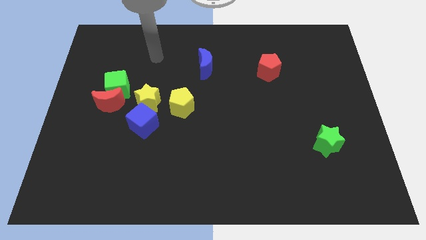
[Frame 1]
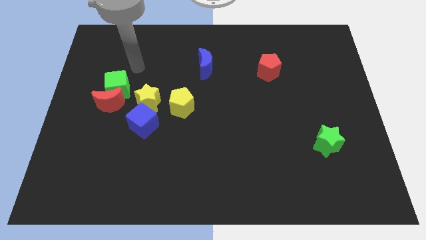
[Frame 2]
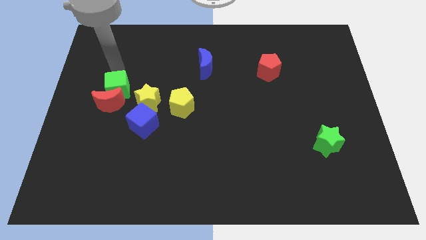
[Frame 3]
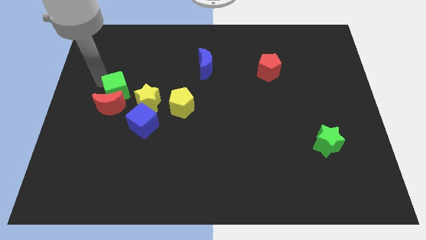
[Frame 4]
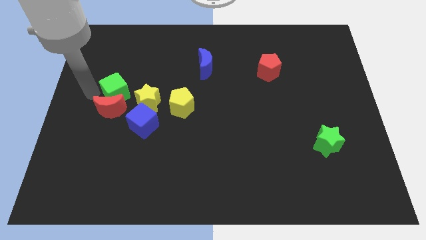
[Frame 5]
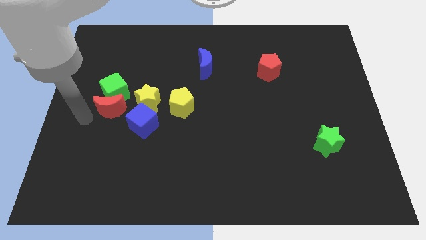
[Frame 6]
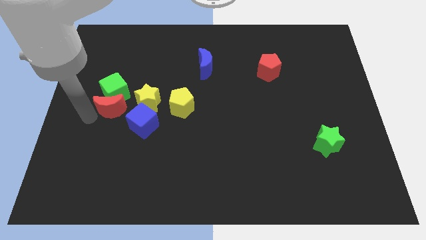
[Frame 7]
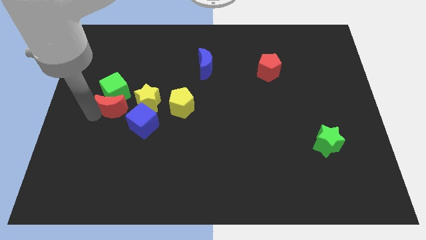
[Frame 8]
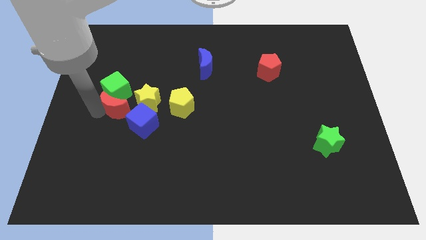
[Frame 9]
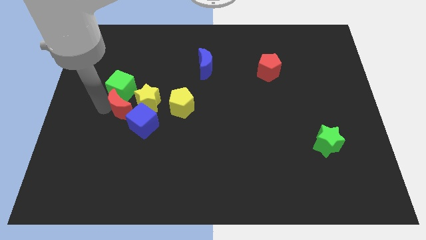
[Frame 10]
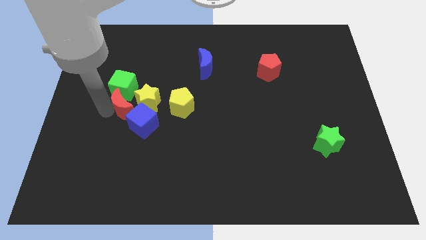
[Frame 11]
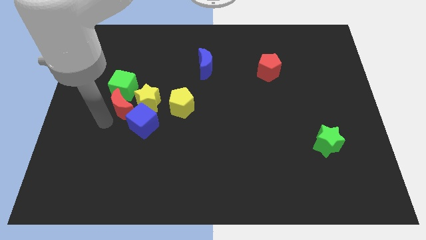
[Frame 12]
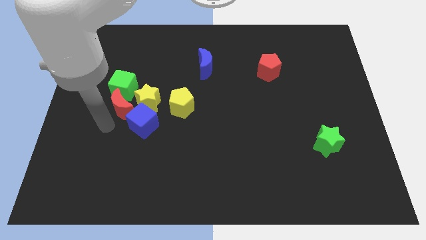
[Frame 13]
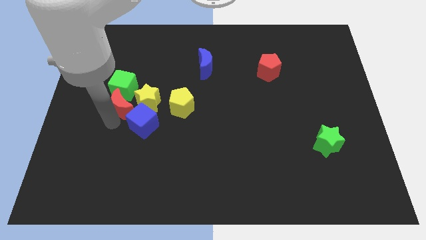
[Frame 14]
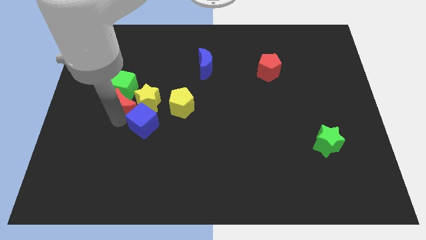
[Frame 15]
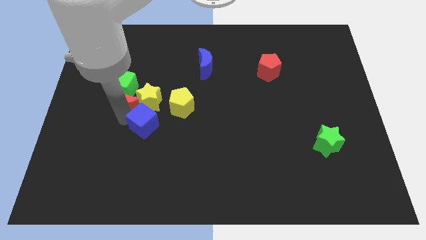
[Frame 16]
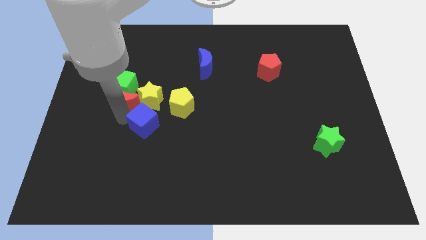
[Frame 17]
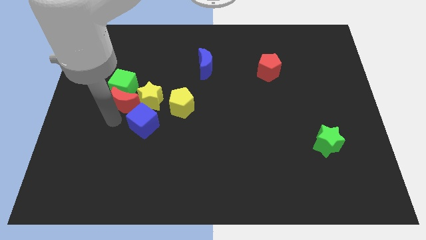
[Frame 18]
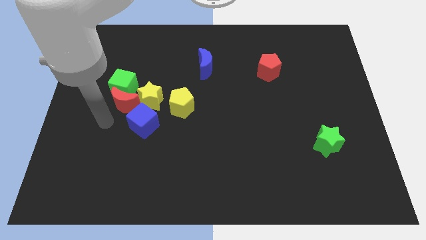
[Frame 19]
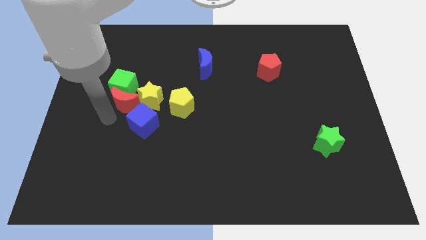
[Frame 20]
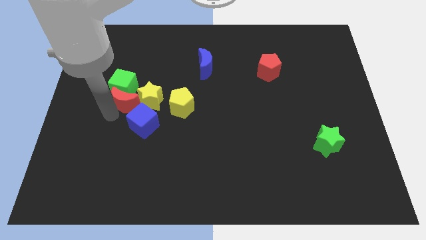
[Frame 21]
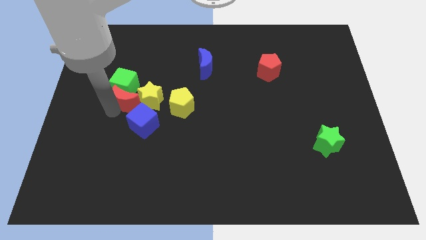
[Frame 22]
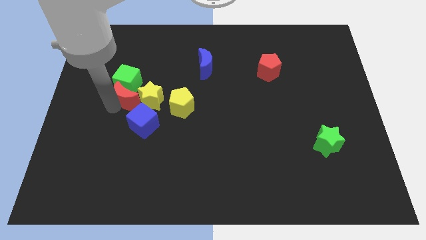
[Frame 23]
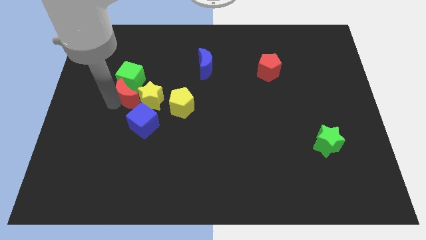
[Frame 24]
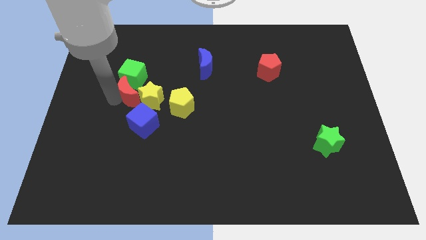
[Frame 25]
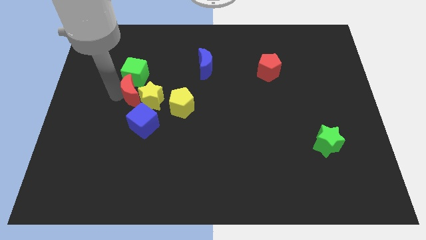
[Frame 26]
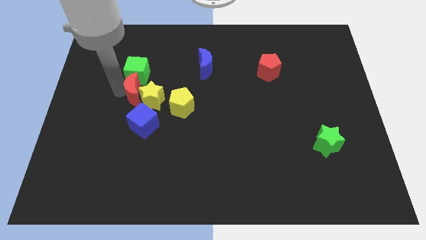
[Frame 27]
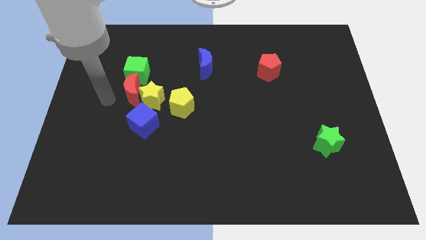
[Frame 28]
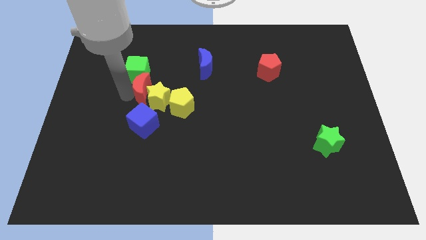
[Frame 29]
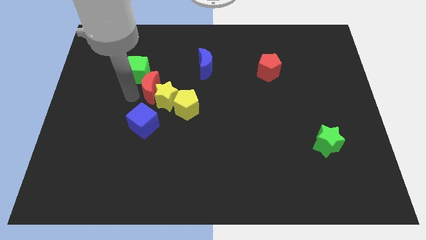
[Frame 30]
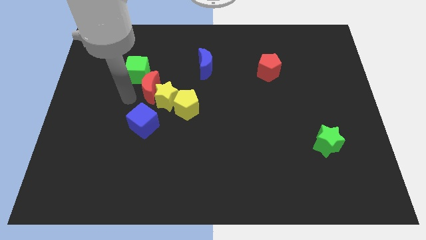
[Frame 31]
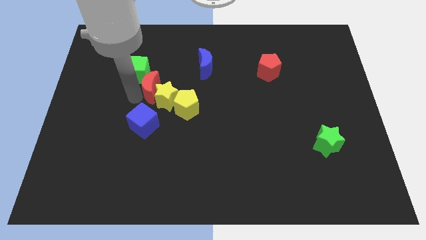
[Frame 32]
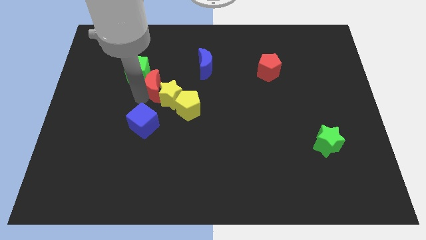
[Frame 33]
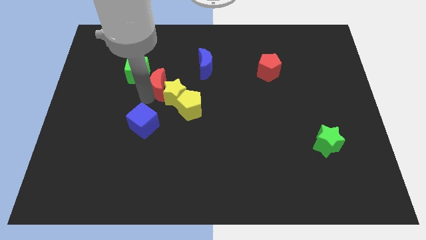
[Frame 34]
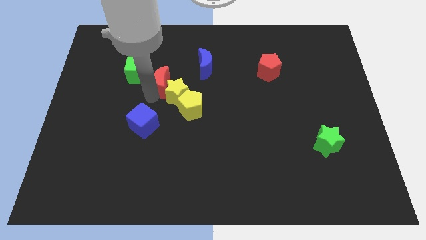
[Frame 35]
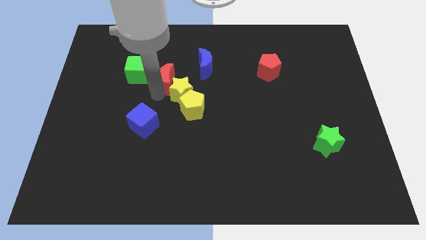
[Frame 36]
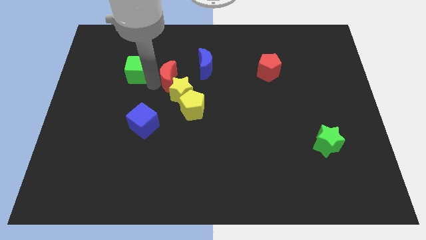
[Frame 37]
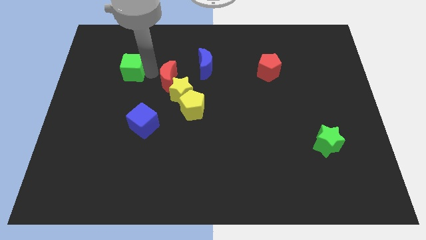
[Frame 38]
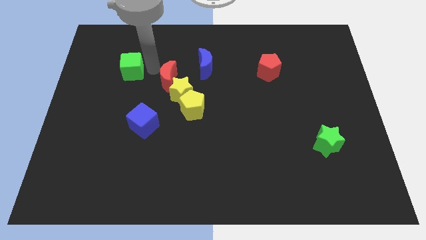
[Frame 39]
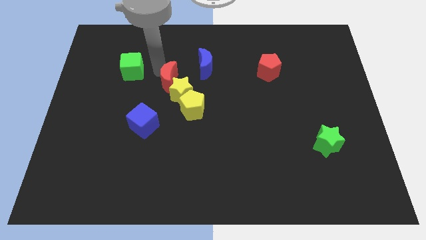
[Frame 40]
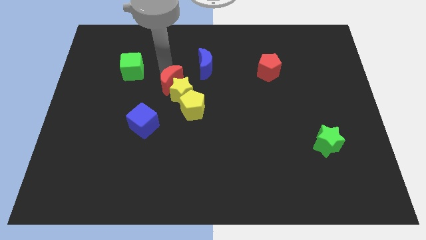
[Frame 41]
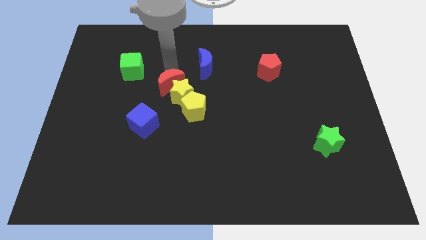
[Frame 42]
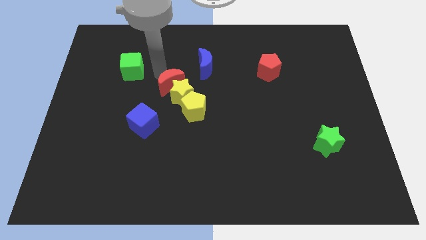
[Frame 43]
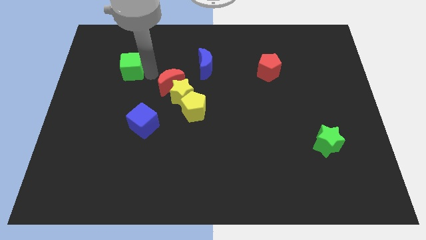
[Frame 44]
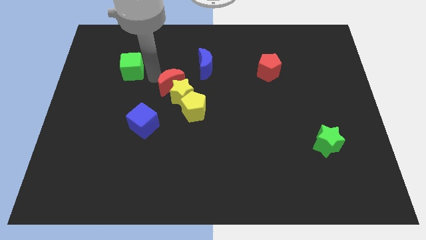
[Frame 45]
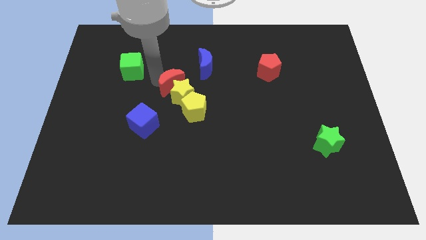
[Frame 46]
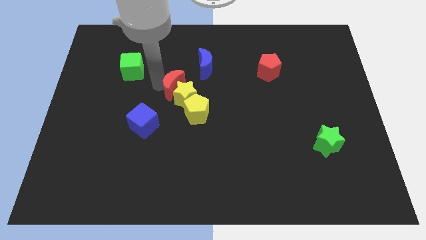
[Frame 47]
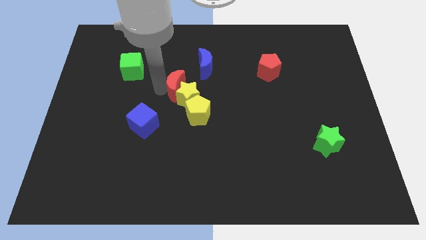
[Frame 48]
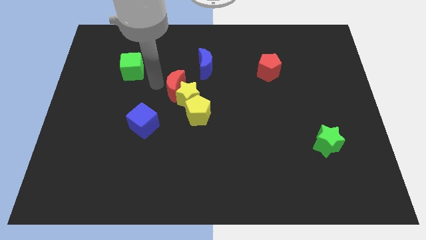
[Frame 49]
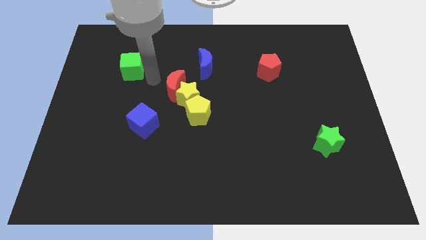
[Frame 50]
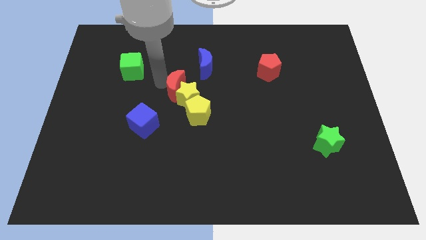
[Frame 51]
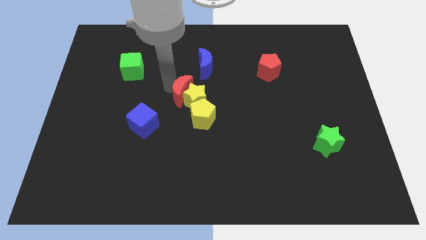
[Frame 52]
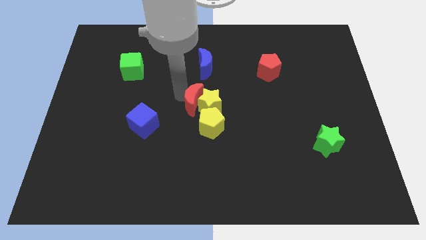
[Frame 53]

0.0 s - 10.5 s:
slide the red moon right

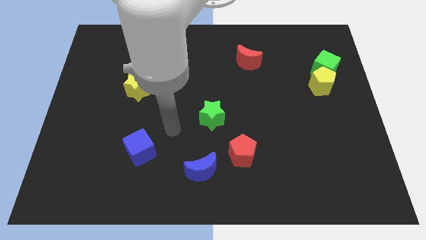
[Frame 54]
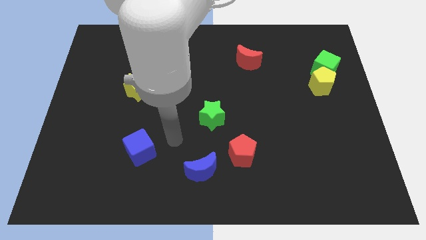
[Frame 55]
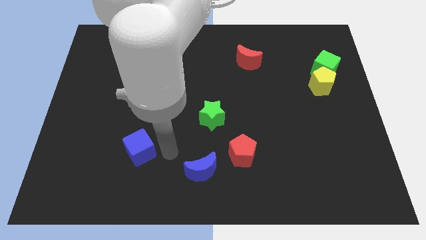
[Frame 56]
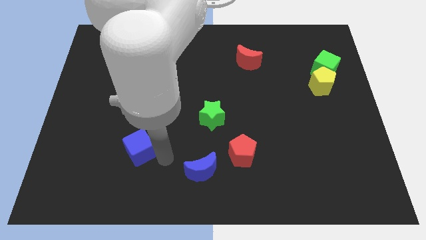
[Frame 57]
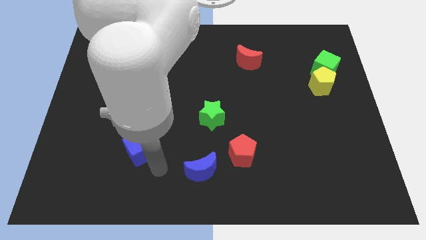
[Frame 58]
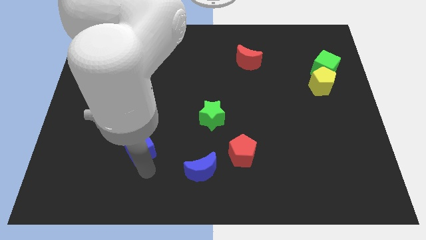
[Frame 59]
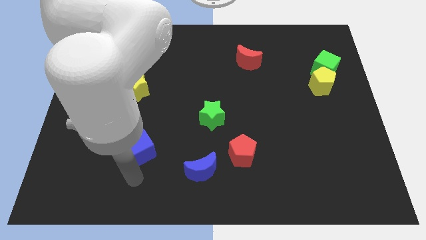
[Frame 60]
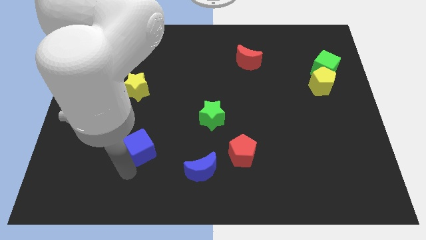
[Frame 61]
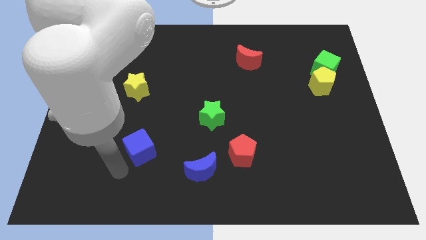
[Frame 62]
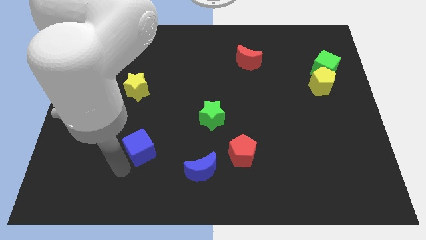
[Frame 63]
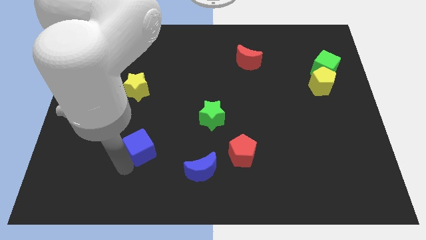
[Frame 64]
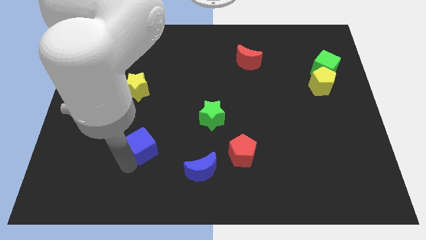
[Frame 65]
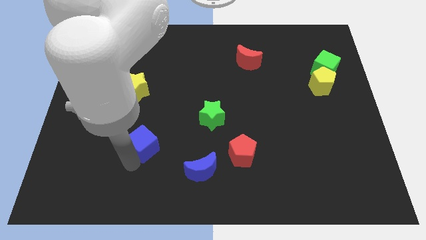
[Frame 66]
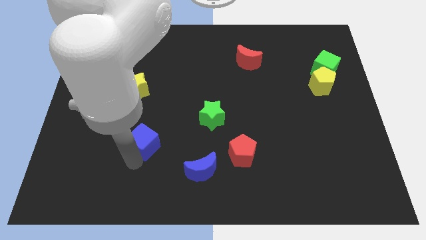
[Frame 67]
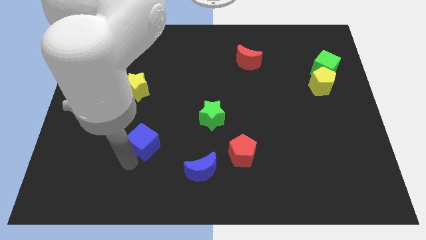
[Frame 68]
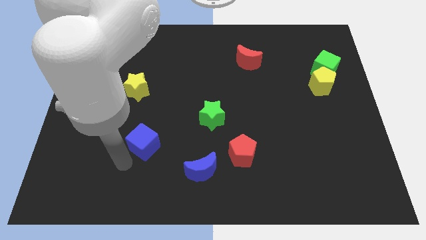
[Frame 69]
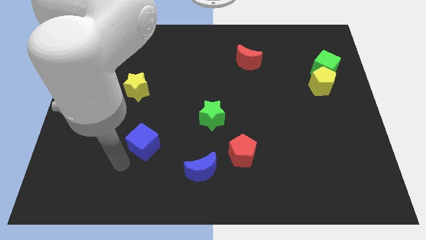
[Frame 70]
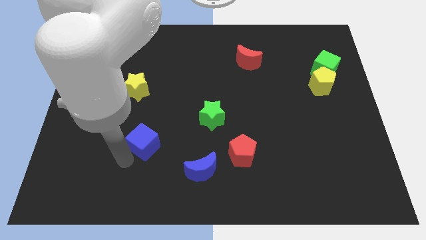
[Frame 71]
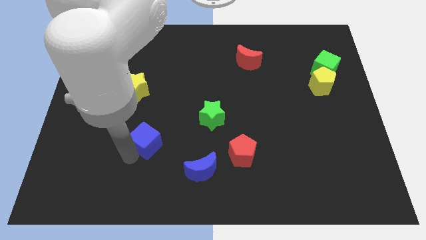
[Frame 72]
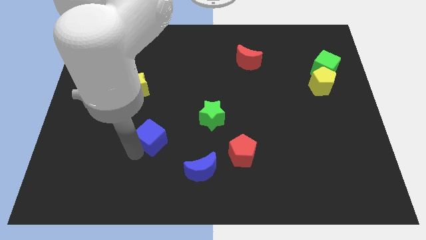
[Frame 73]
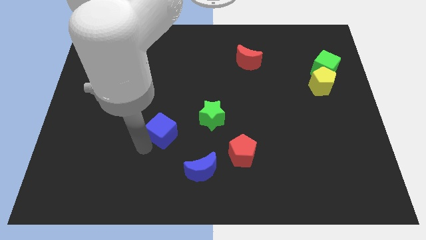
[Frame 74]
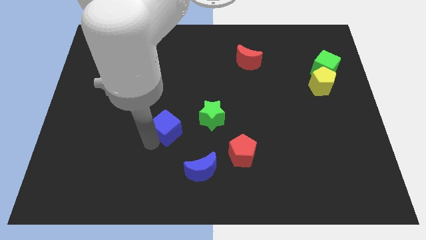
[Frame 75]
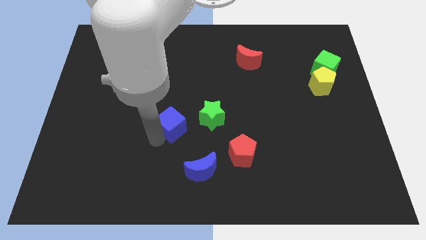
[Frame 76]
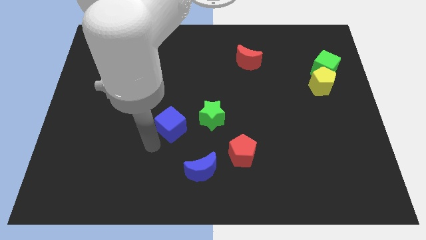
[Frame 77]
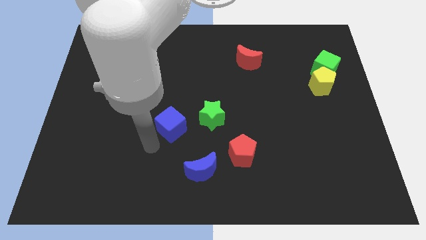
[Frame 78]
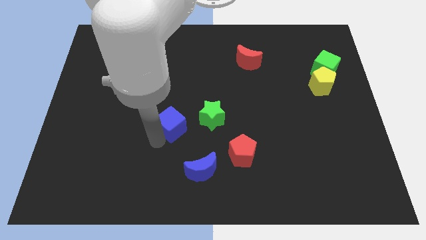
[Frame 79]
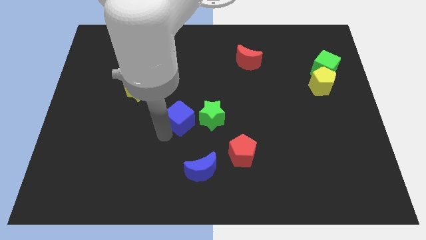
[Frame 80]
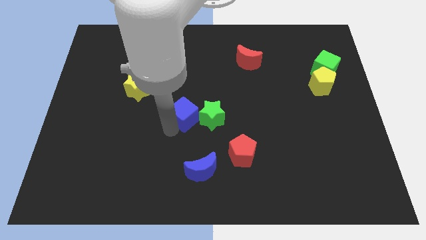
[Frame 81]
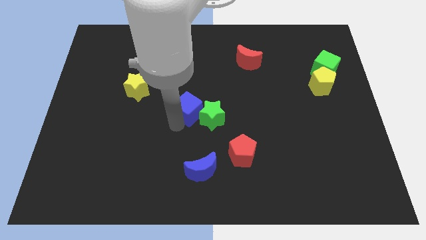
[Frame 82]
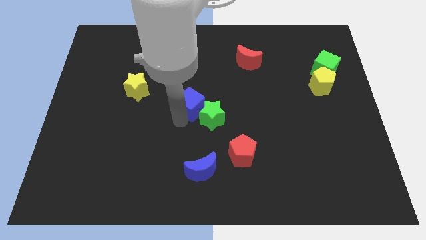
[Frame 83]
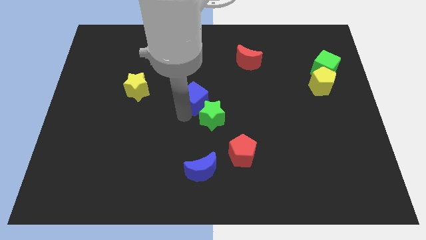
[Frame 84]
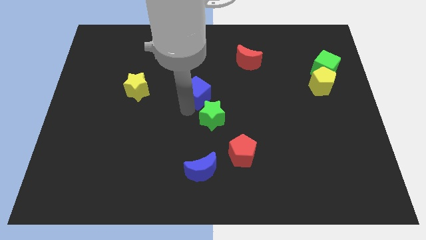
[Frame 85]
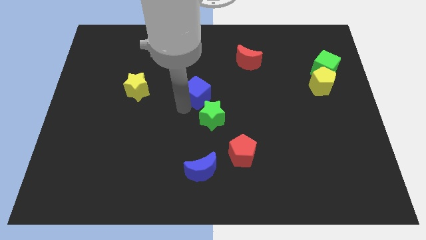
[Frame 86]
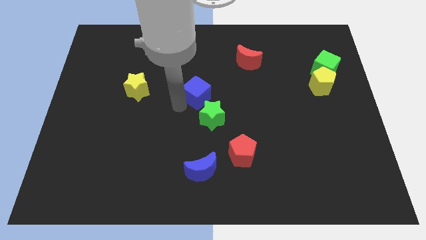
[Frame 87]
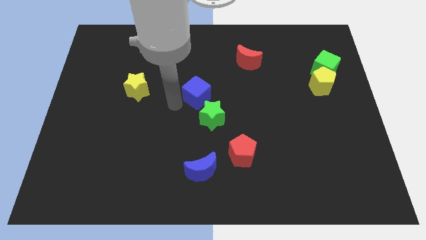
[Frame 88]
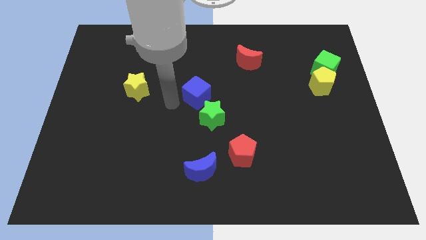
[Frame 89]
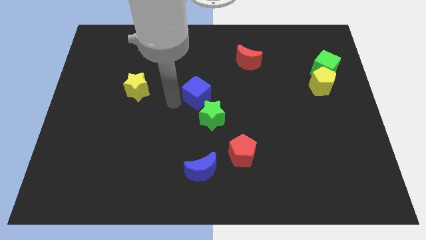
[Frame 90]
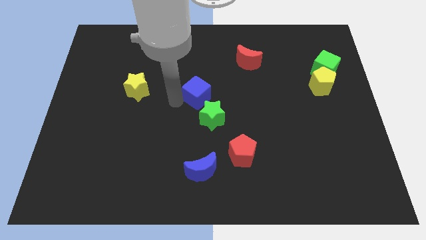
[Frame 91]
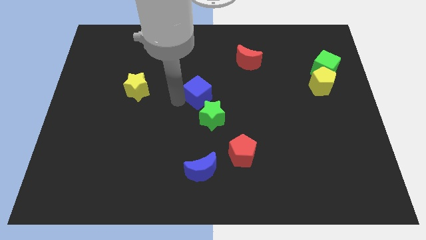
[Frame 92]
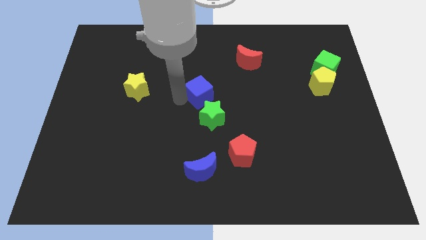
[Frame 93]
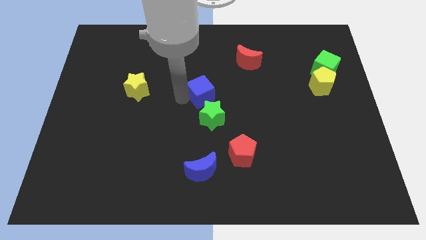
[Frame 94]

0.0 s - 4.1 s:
slide the blue cube up and then to the right
